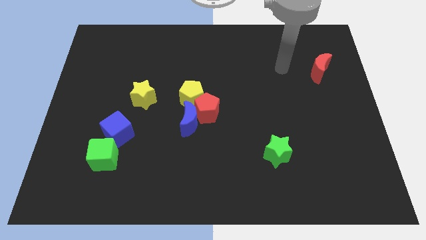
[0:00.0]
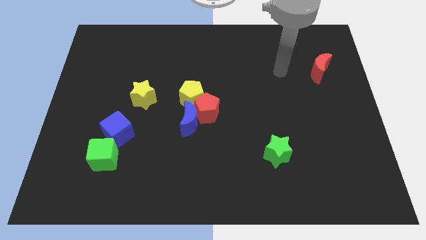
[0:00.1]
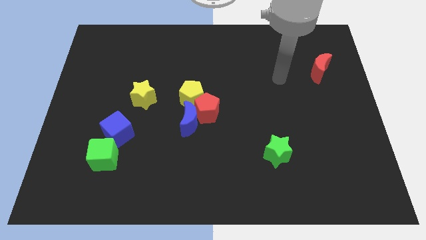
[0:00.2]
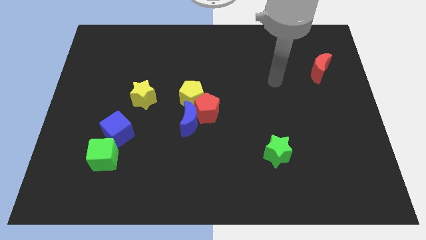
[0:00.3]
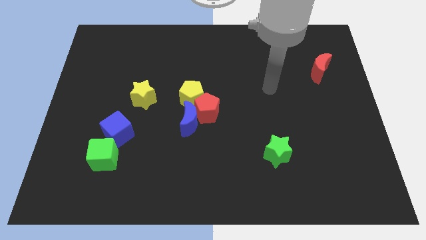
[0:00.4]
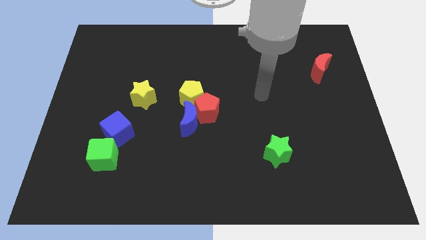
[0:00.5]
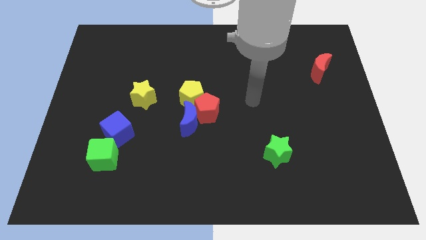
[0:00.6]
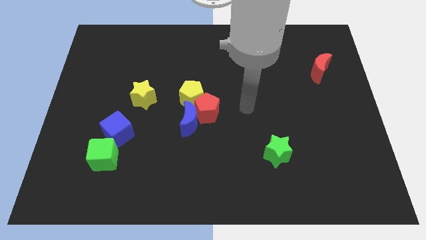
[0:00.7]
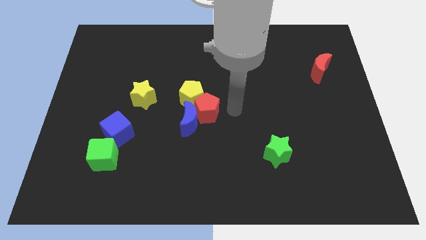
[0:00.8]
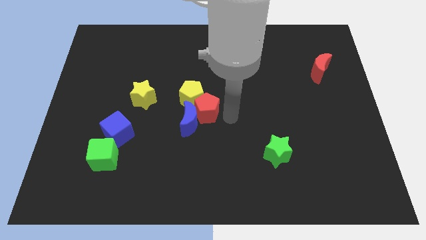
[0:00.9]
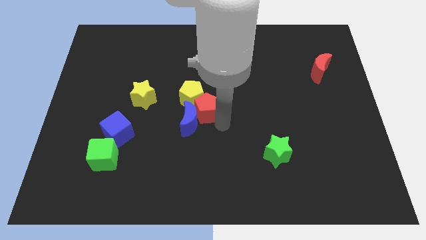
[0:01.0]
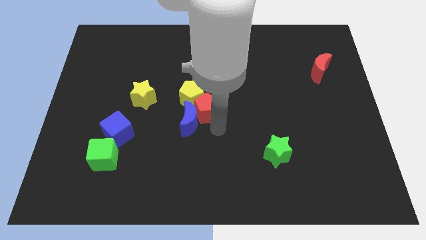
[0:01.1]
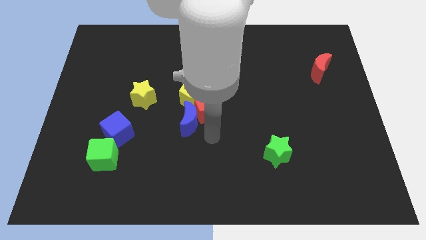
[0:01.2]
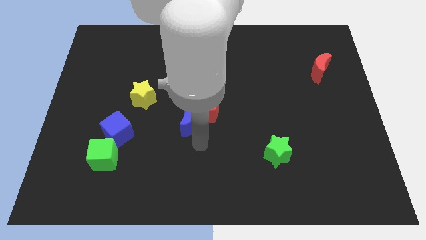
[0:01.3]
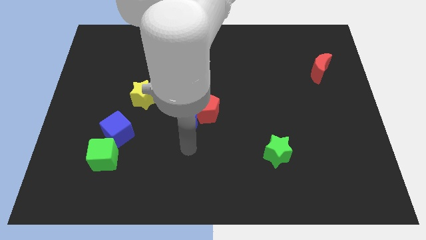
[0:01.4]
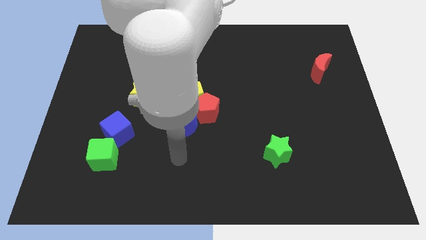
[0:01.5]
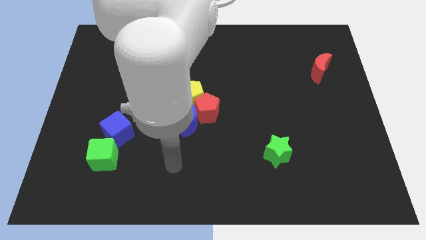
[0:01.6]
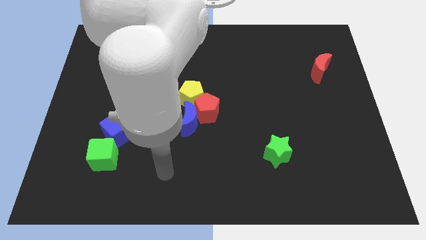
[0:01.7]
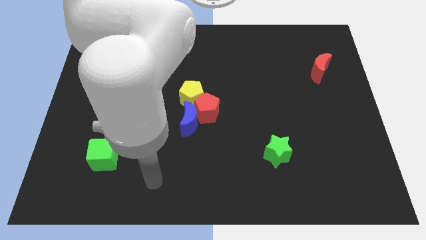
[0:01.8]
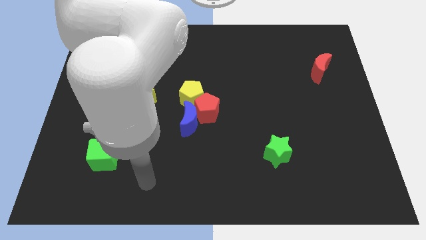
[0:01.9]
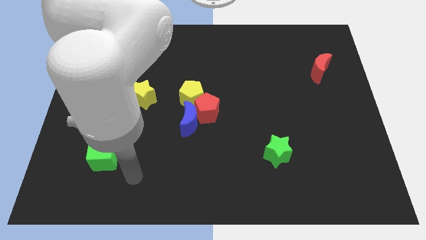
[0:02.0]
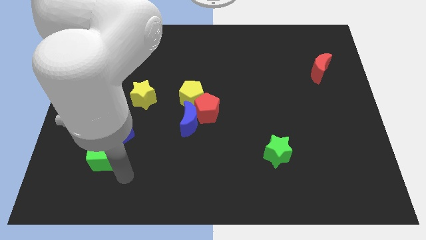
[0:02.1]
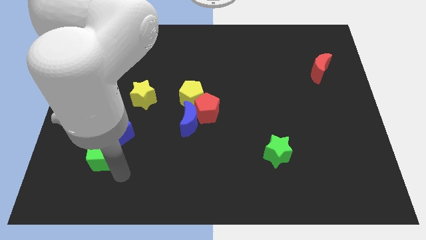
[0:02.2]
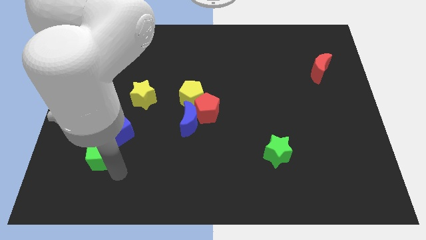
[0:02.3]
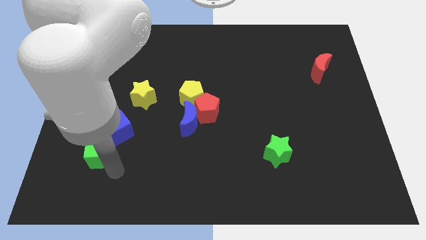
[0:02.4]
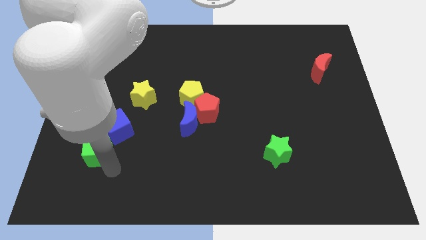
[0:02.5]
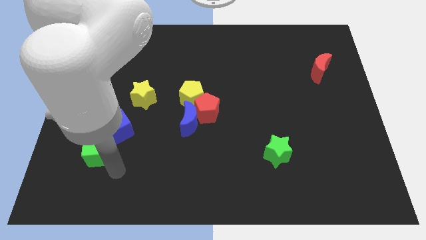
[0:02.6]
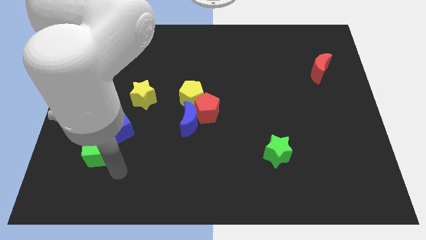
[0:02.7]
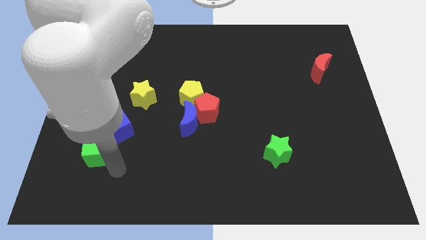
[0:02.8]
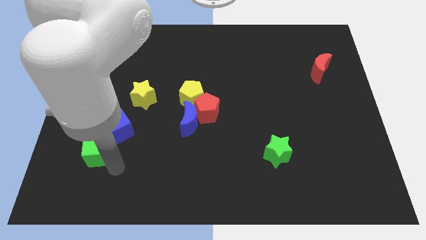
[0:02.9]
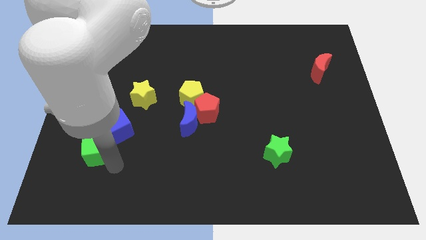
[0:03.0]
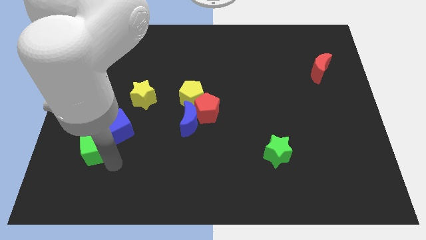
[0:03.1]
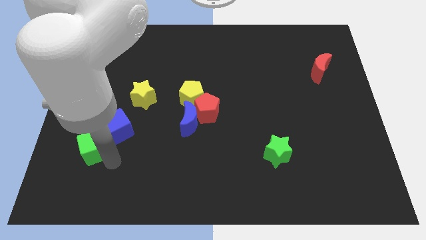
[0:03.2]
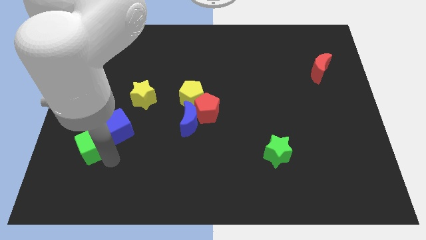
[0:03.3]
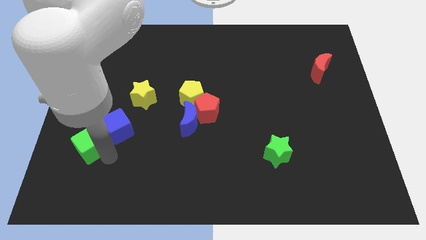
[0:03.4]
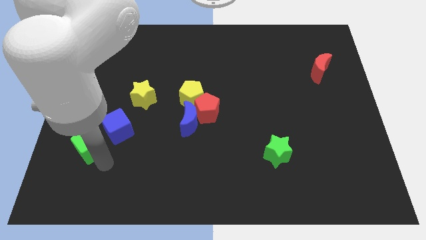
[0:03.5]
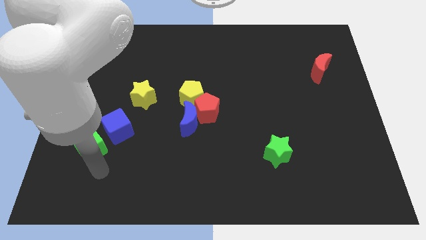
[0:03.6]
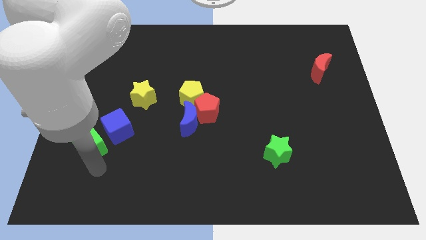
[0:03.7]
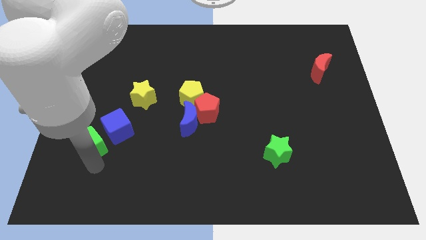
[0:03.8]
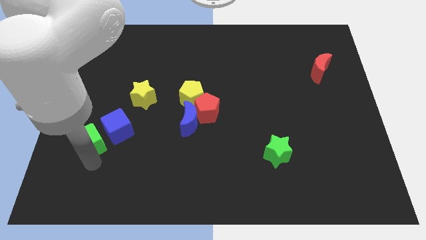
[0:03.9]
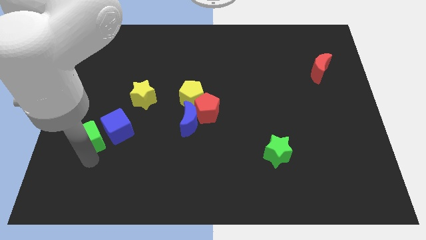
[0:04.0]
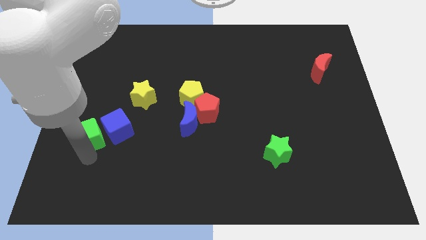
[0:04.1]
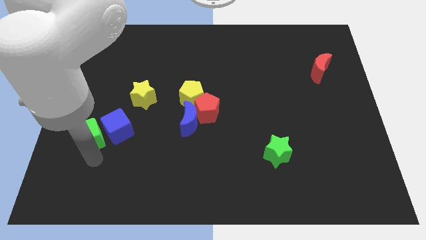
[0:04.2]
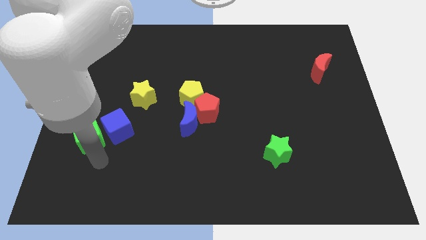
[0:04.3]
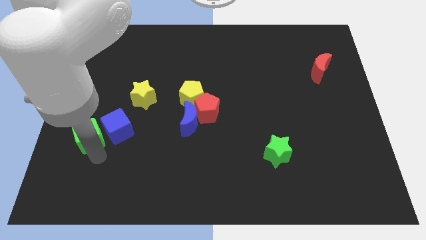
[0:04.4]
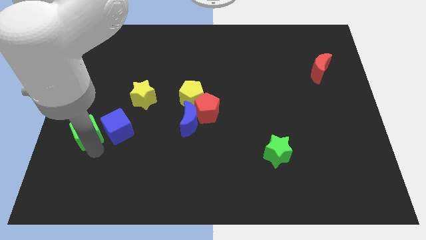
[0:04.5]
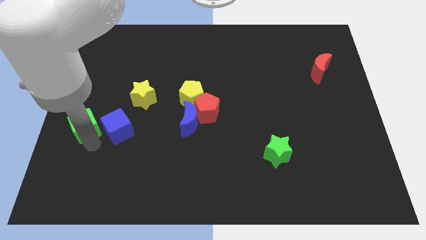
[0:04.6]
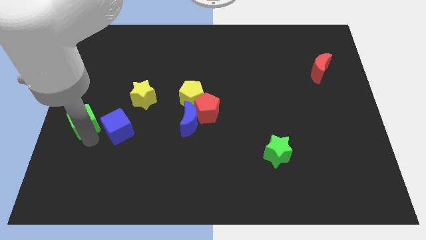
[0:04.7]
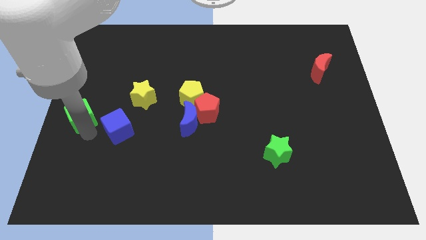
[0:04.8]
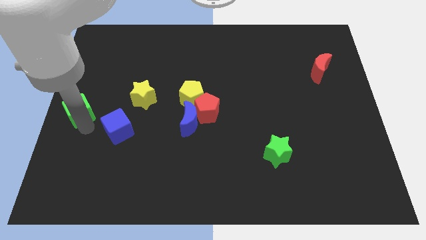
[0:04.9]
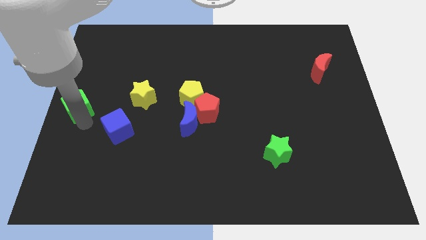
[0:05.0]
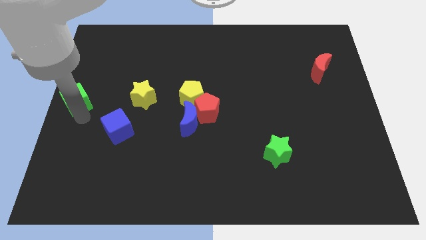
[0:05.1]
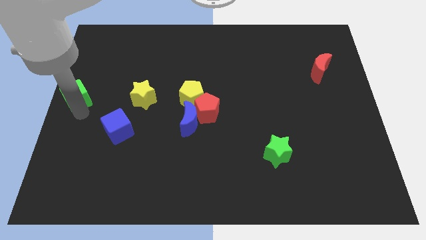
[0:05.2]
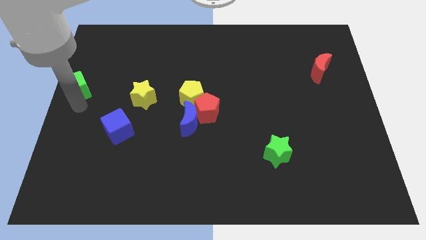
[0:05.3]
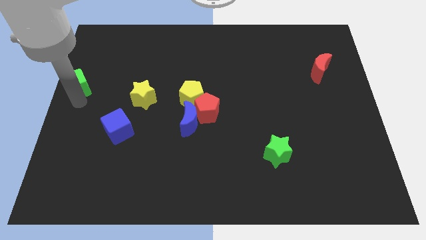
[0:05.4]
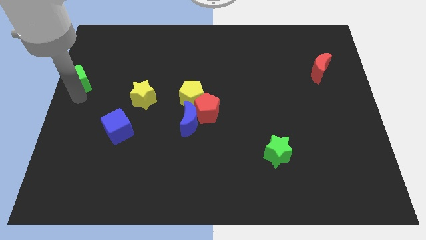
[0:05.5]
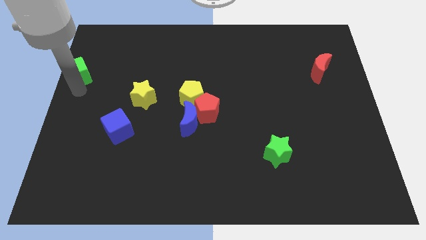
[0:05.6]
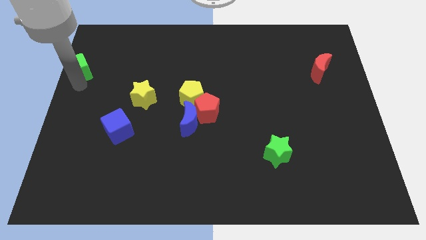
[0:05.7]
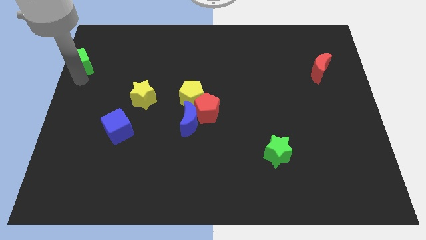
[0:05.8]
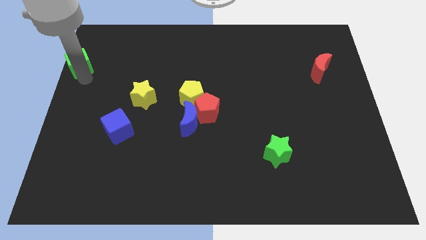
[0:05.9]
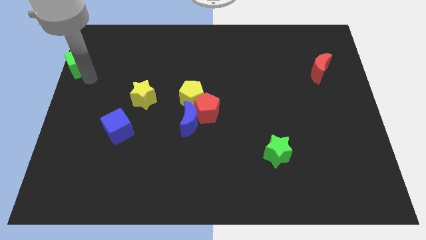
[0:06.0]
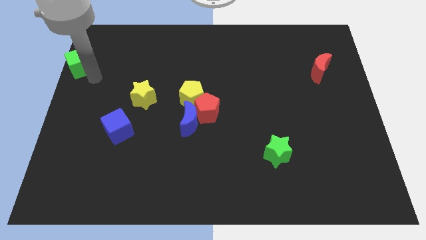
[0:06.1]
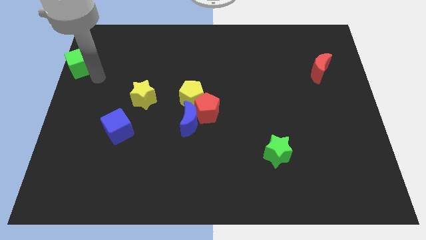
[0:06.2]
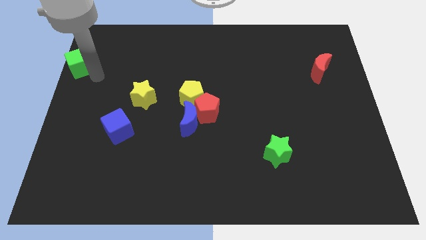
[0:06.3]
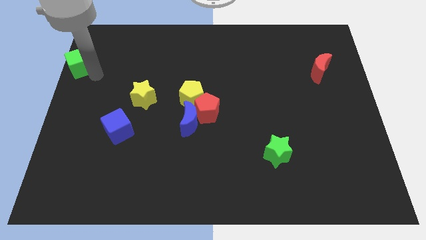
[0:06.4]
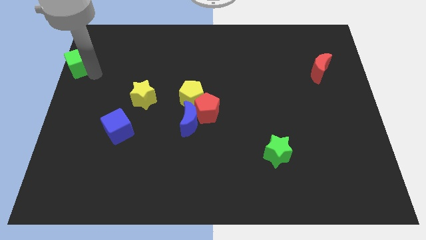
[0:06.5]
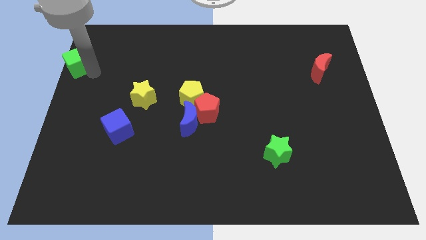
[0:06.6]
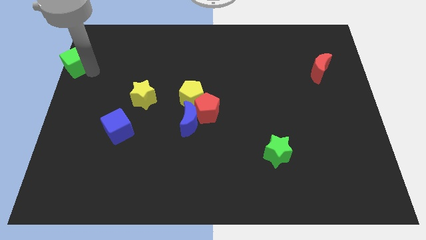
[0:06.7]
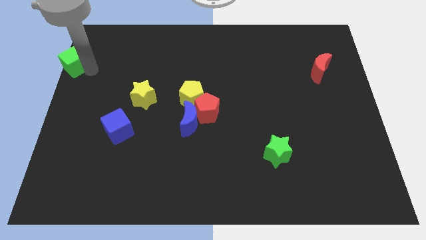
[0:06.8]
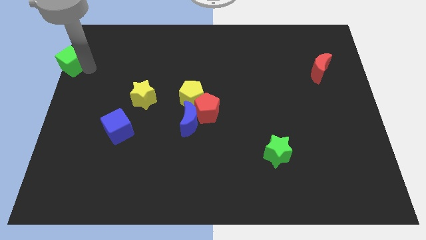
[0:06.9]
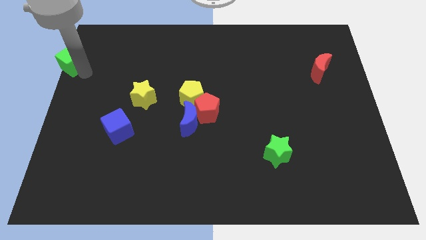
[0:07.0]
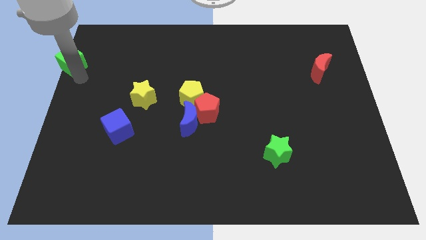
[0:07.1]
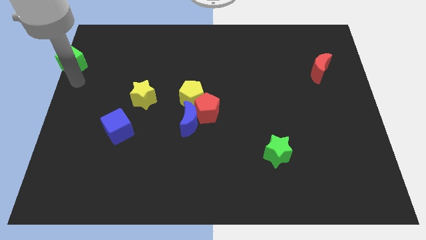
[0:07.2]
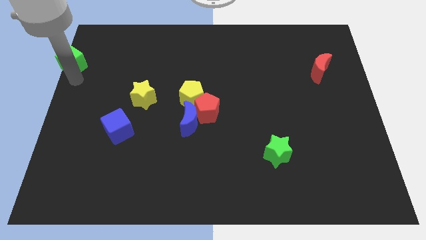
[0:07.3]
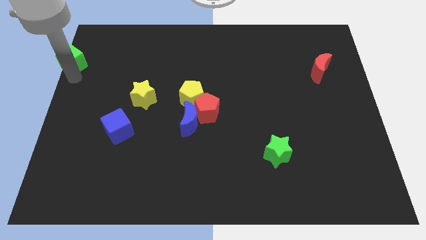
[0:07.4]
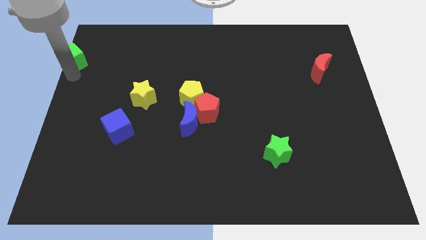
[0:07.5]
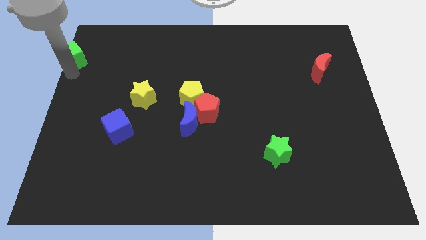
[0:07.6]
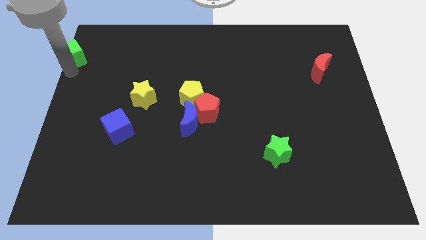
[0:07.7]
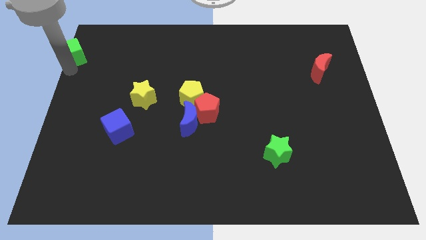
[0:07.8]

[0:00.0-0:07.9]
move the green cube to the top left corner
